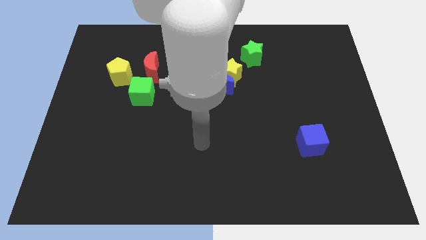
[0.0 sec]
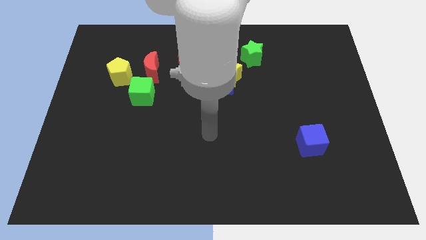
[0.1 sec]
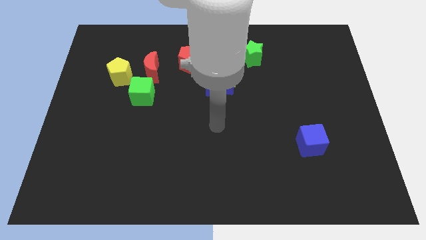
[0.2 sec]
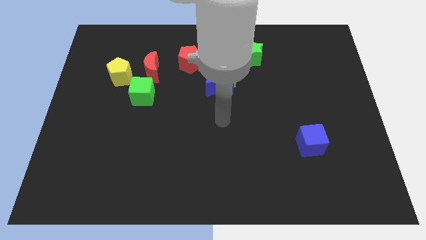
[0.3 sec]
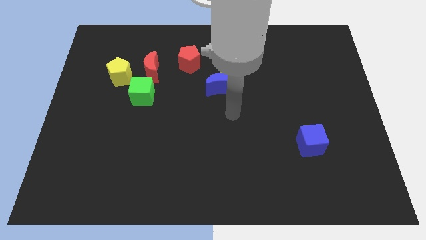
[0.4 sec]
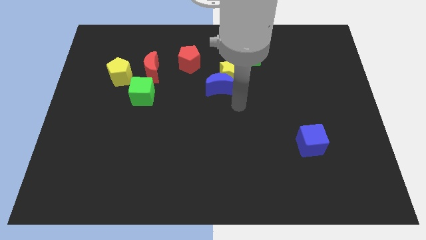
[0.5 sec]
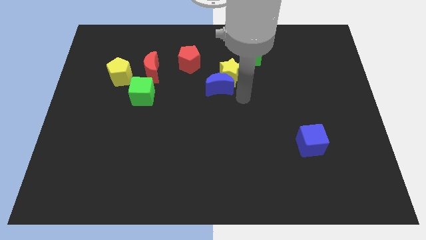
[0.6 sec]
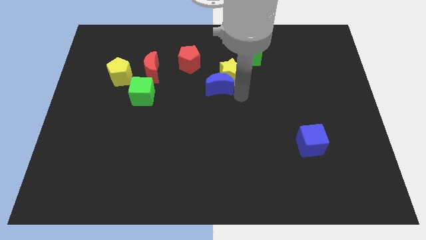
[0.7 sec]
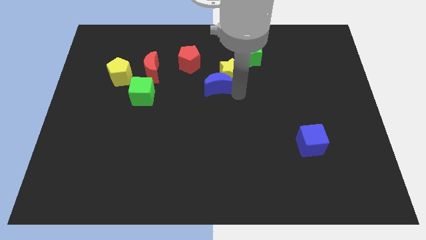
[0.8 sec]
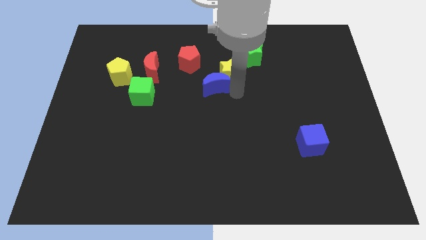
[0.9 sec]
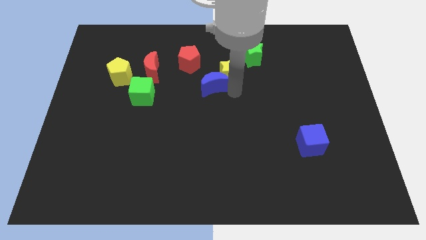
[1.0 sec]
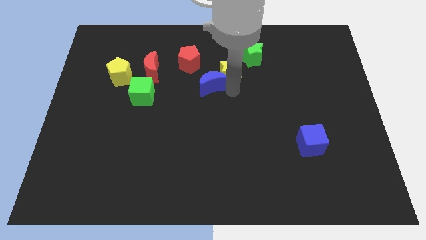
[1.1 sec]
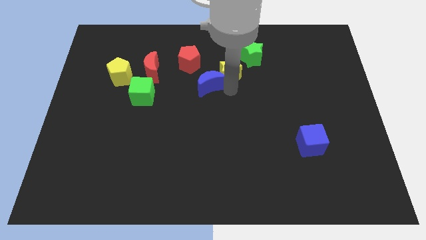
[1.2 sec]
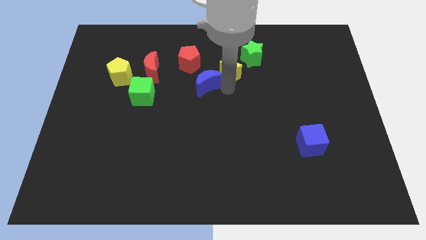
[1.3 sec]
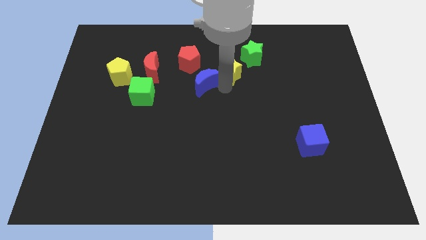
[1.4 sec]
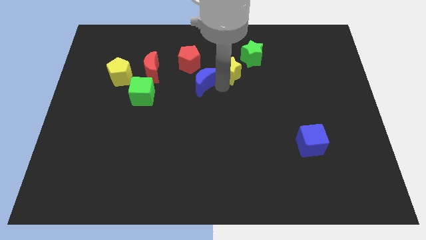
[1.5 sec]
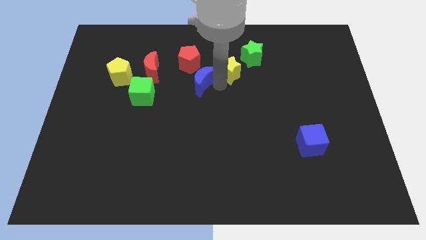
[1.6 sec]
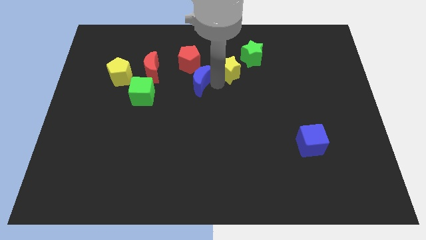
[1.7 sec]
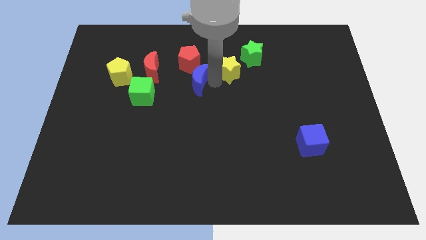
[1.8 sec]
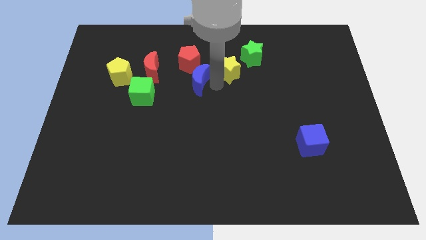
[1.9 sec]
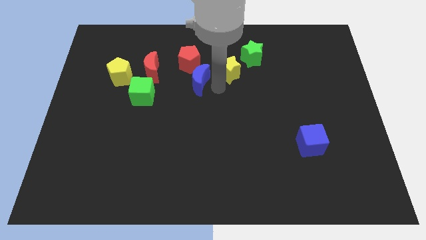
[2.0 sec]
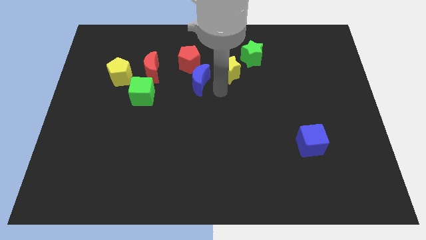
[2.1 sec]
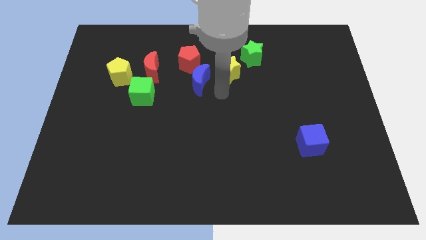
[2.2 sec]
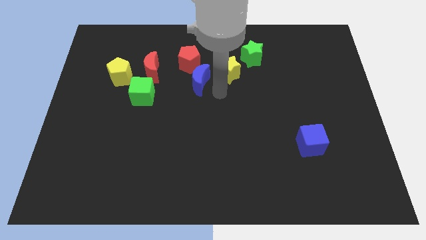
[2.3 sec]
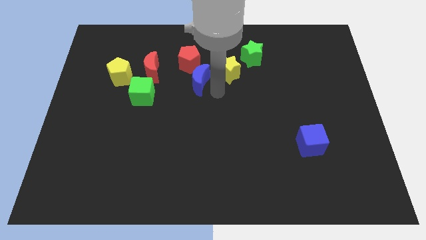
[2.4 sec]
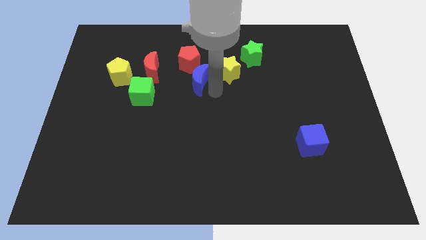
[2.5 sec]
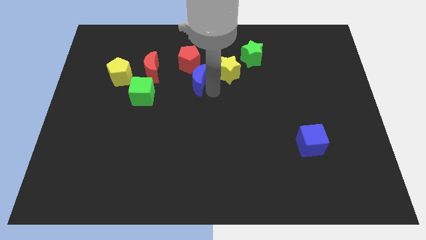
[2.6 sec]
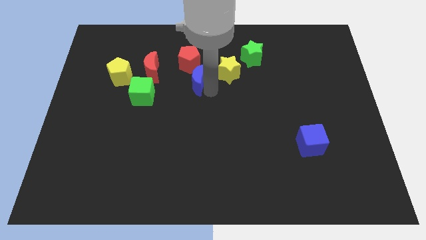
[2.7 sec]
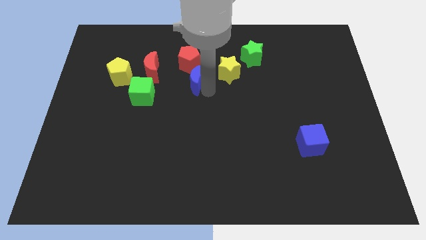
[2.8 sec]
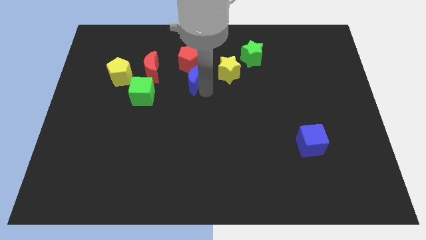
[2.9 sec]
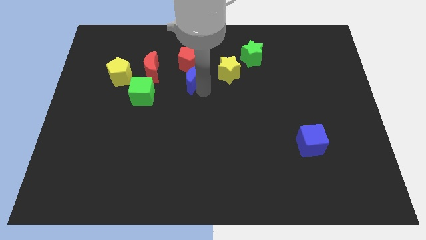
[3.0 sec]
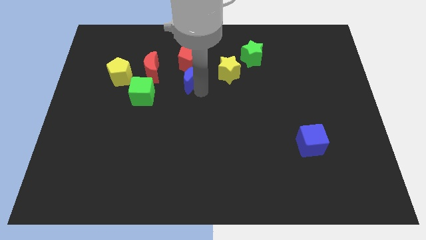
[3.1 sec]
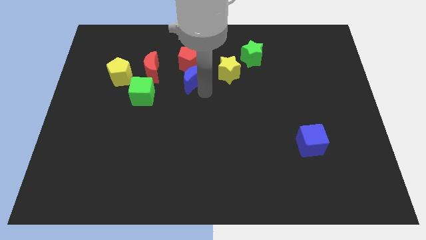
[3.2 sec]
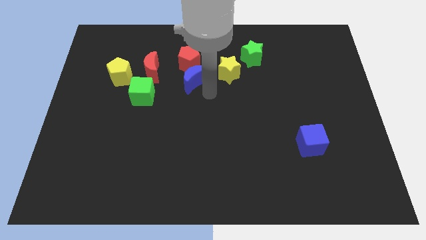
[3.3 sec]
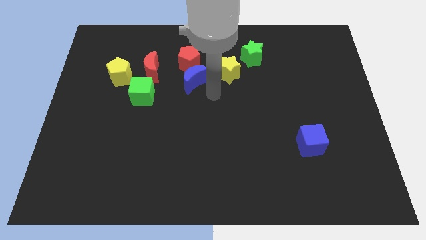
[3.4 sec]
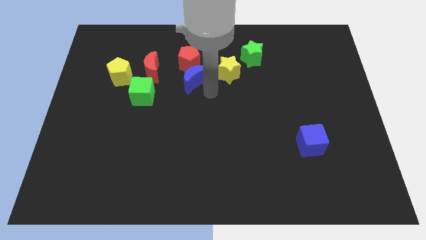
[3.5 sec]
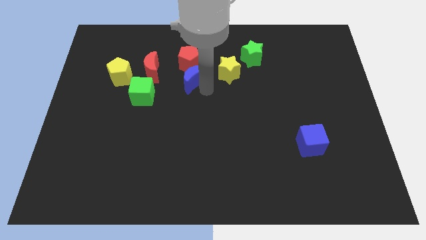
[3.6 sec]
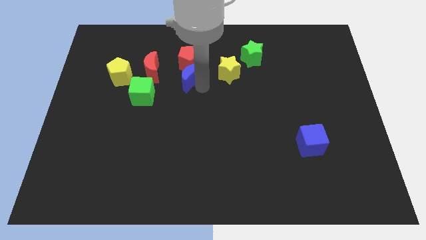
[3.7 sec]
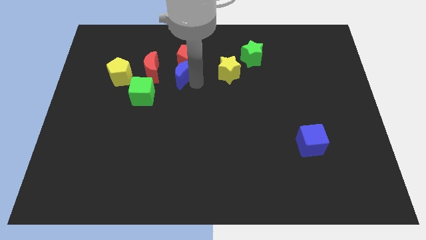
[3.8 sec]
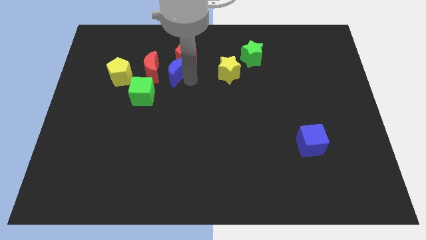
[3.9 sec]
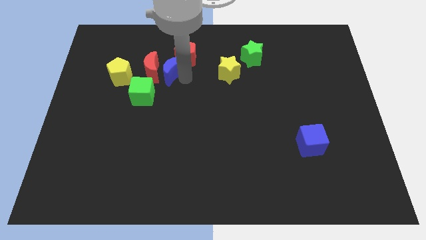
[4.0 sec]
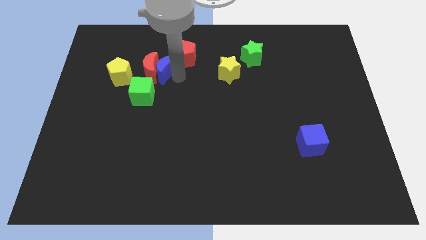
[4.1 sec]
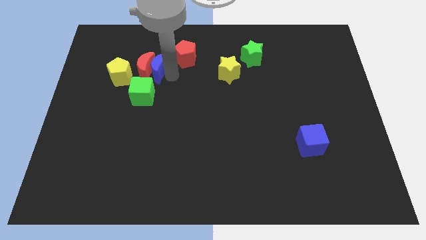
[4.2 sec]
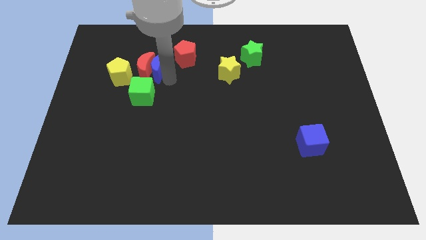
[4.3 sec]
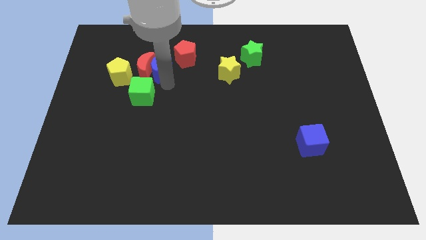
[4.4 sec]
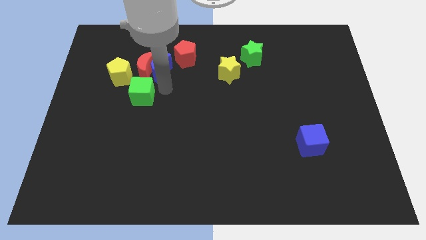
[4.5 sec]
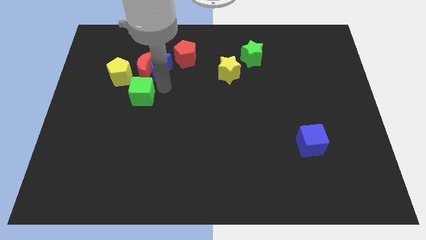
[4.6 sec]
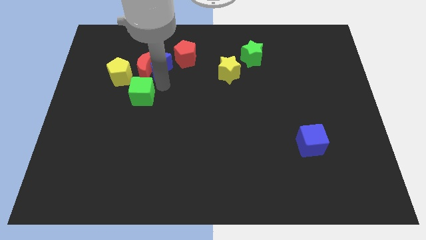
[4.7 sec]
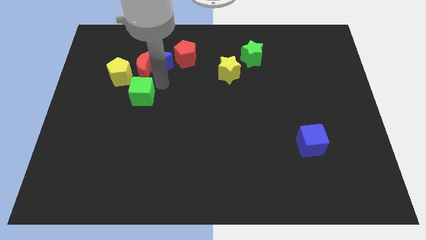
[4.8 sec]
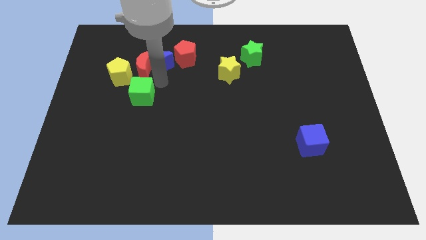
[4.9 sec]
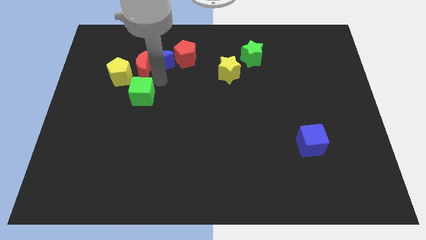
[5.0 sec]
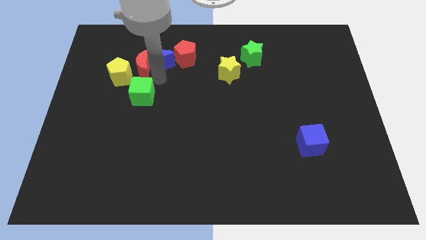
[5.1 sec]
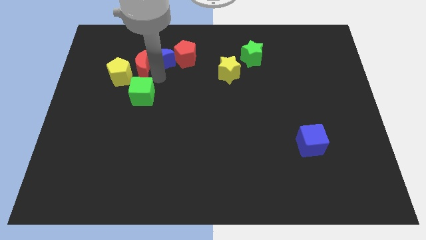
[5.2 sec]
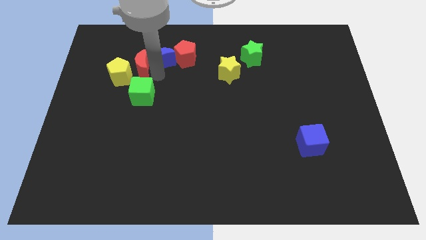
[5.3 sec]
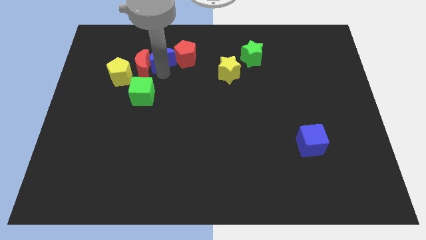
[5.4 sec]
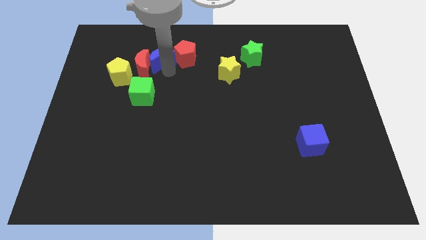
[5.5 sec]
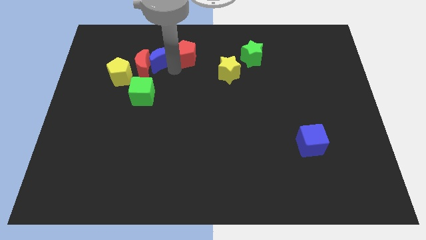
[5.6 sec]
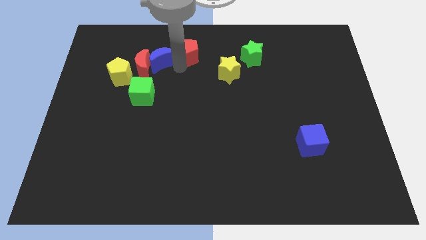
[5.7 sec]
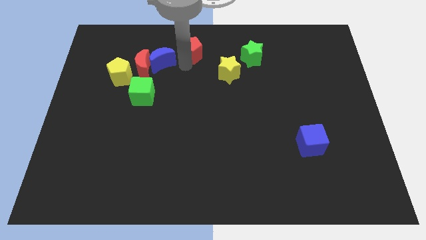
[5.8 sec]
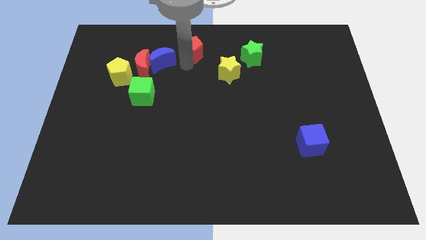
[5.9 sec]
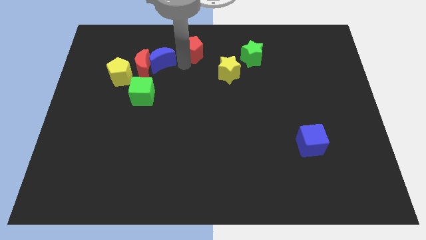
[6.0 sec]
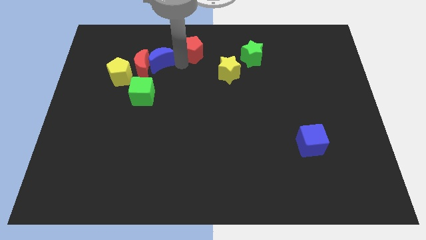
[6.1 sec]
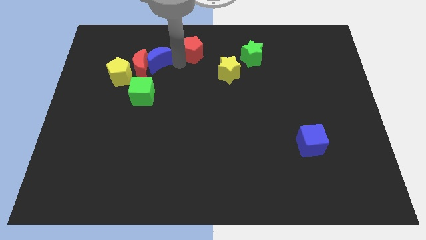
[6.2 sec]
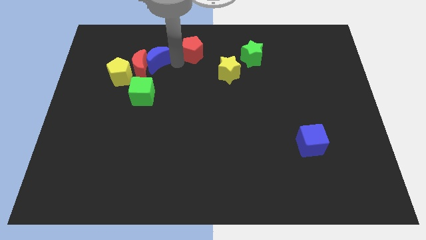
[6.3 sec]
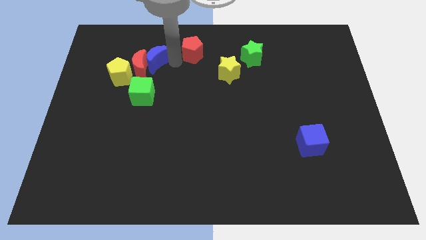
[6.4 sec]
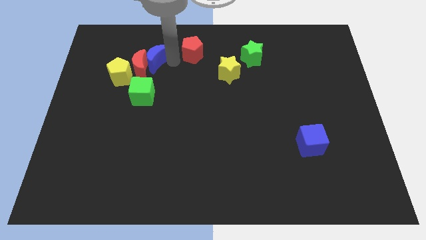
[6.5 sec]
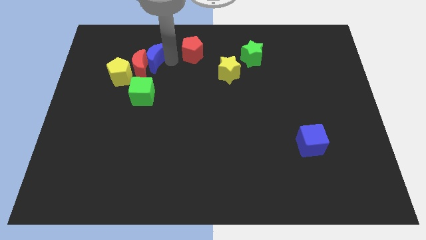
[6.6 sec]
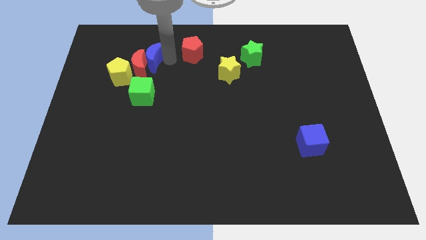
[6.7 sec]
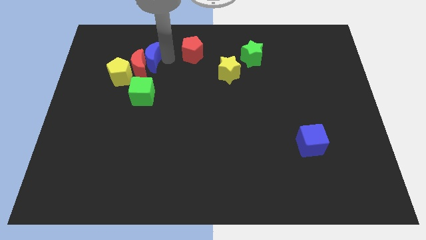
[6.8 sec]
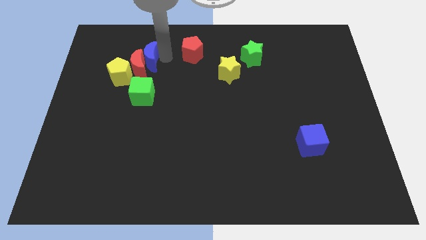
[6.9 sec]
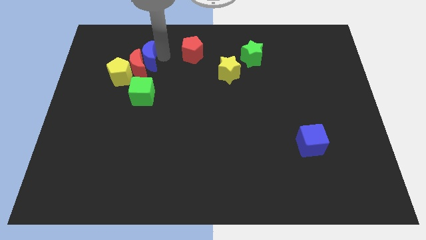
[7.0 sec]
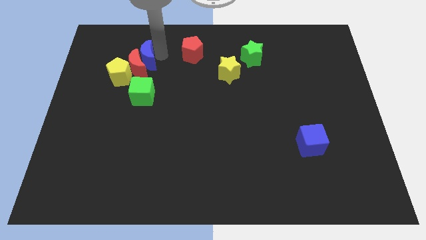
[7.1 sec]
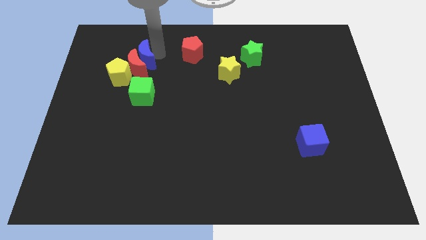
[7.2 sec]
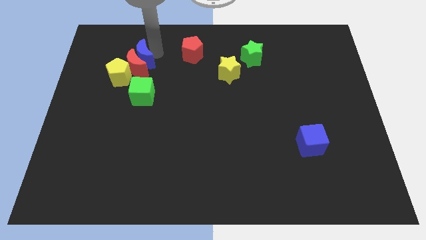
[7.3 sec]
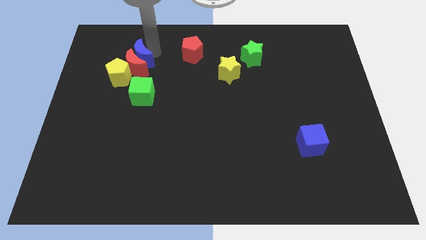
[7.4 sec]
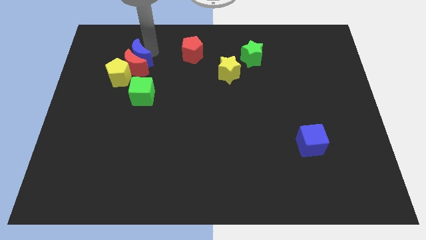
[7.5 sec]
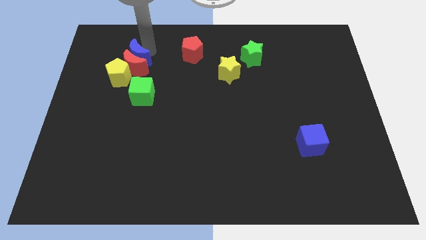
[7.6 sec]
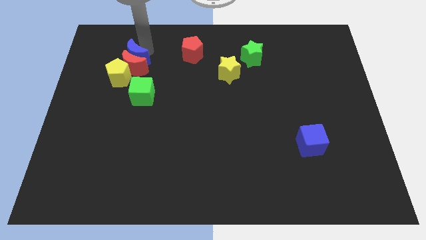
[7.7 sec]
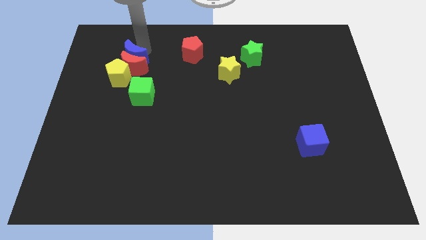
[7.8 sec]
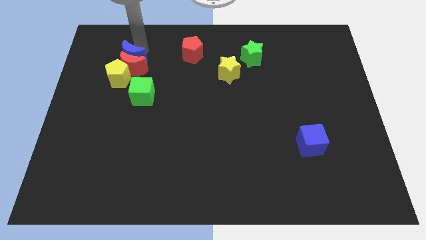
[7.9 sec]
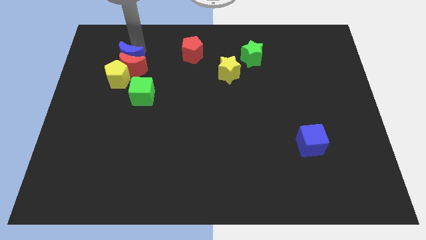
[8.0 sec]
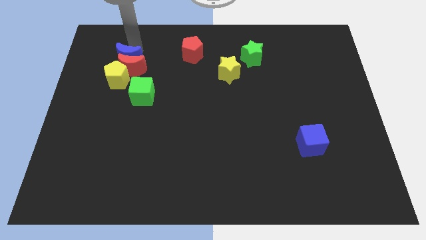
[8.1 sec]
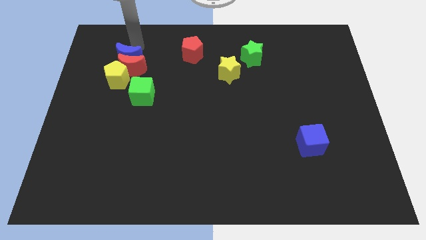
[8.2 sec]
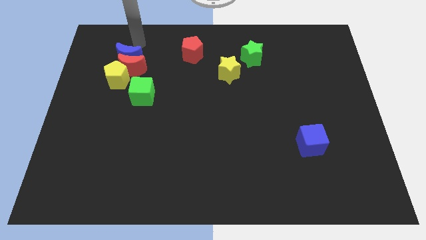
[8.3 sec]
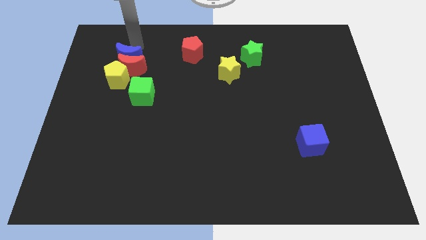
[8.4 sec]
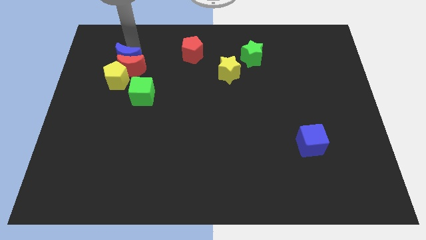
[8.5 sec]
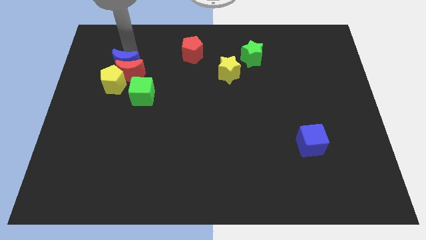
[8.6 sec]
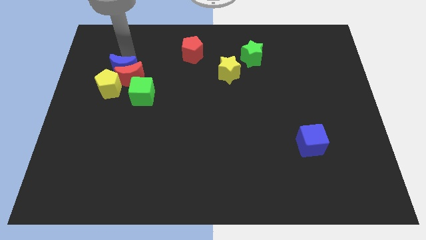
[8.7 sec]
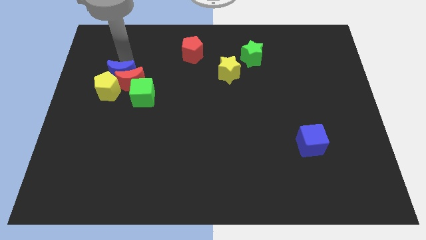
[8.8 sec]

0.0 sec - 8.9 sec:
put the blue moon close to the yellow pentagon
